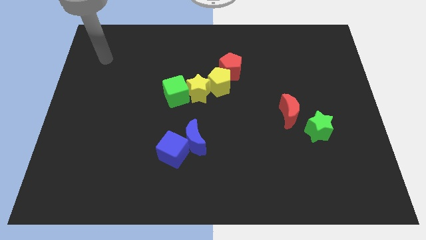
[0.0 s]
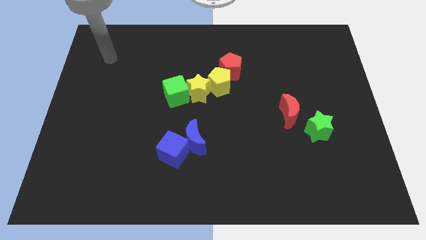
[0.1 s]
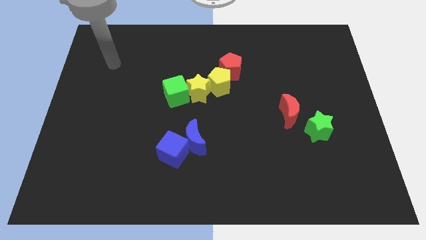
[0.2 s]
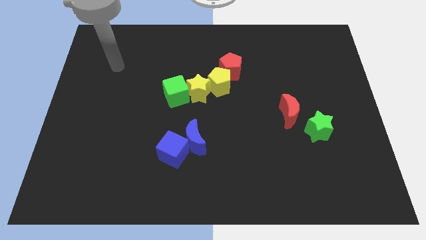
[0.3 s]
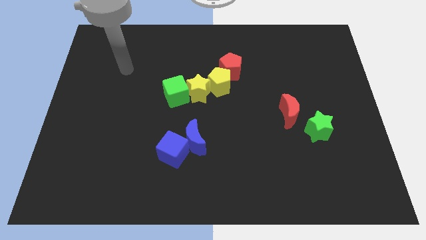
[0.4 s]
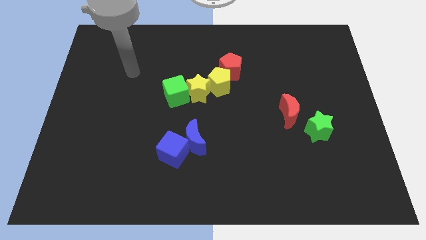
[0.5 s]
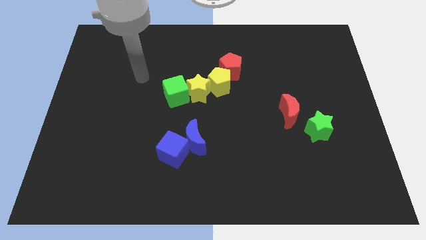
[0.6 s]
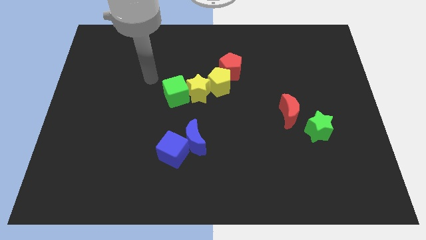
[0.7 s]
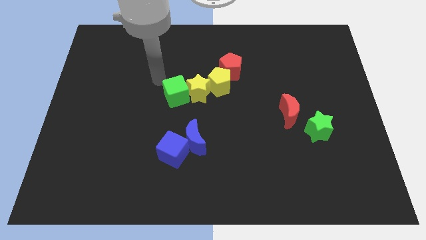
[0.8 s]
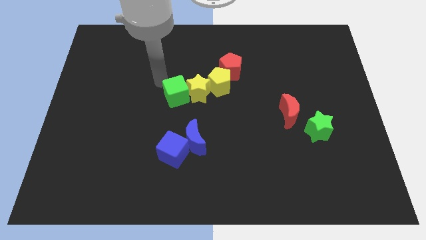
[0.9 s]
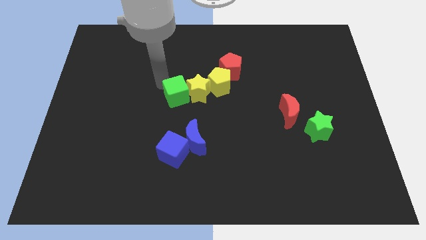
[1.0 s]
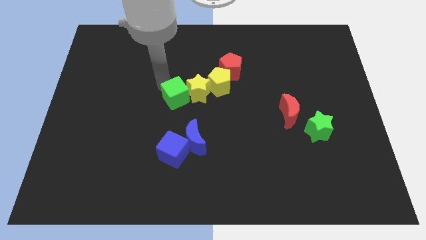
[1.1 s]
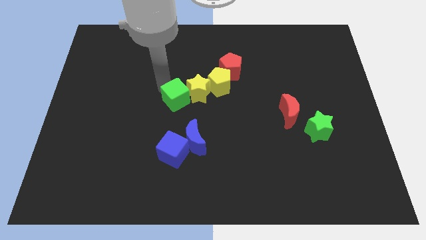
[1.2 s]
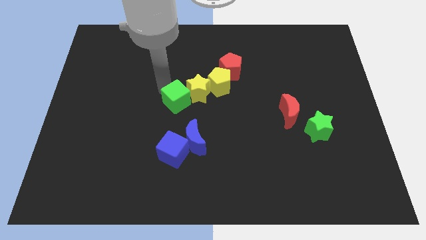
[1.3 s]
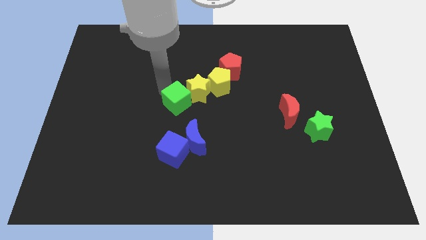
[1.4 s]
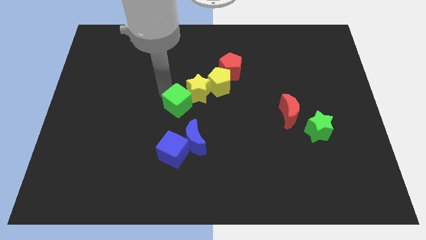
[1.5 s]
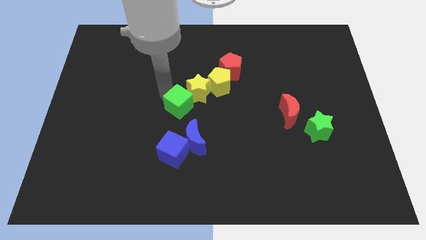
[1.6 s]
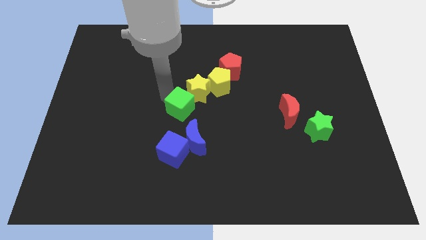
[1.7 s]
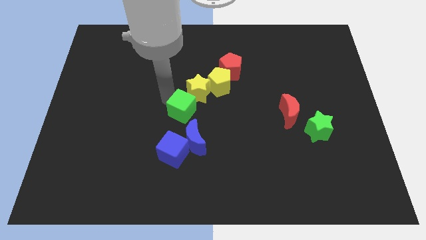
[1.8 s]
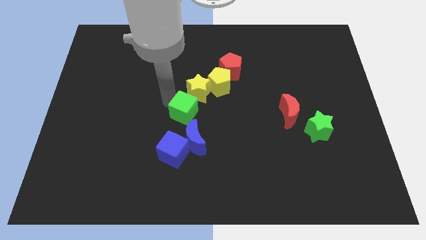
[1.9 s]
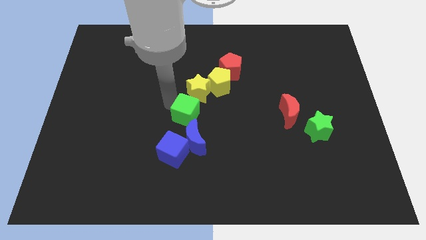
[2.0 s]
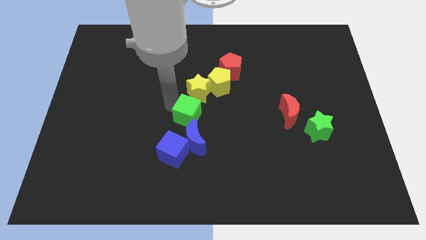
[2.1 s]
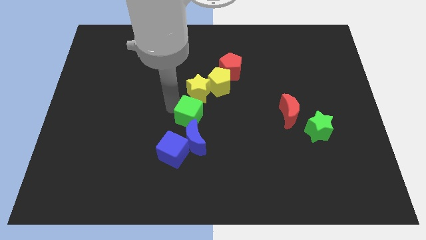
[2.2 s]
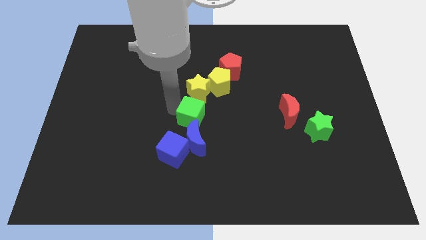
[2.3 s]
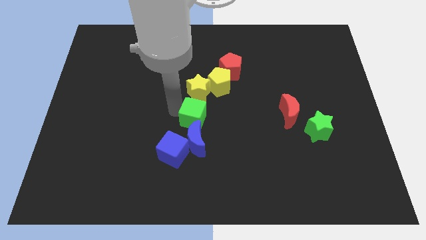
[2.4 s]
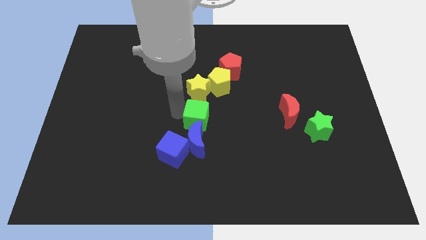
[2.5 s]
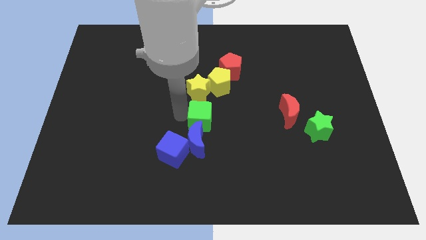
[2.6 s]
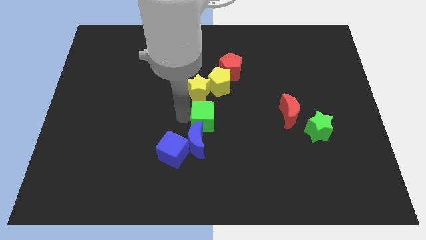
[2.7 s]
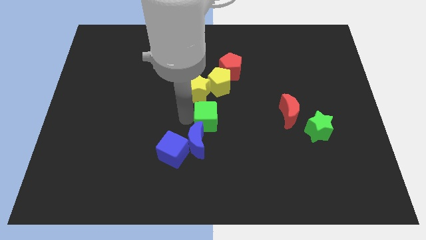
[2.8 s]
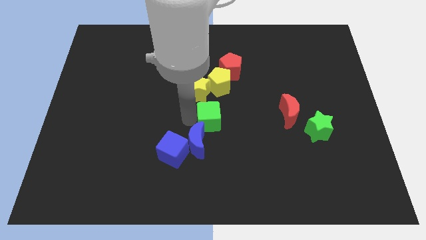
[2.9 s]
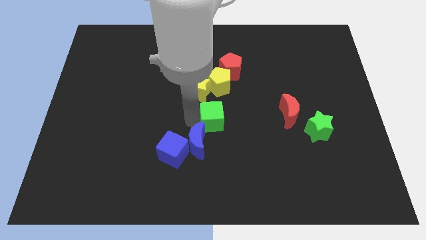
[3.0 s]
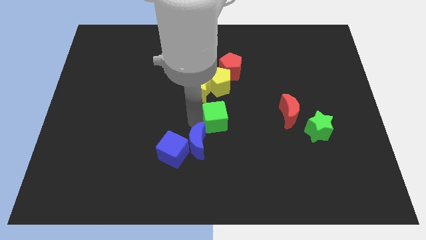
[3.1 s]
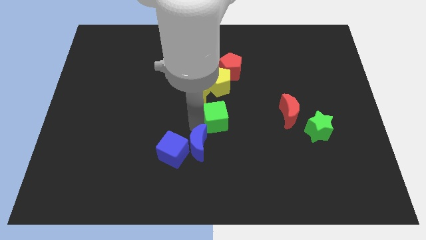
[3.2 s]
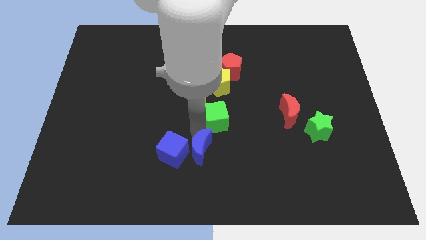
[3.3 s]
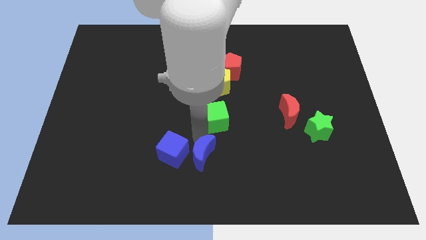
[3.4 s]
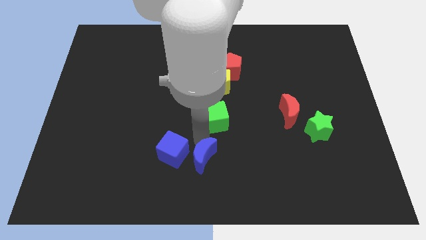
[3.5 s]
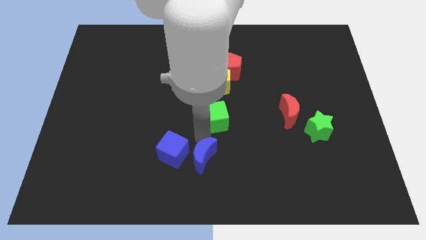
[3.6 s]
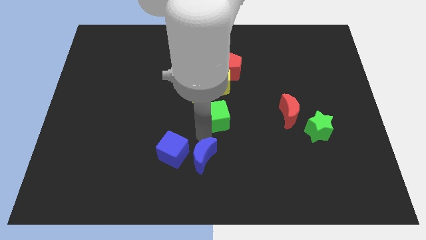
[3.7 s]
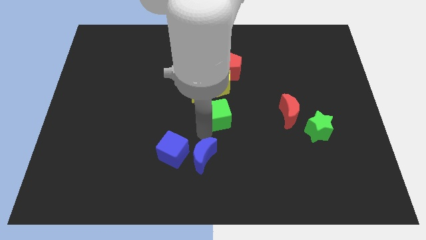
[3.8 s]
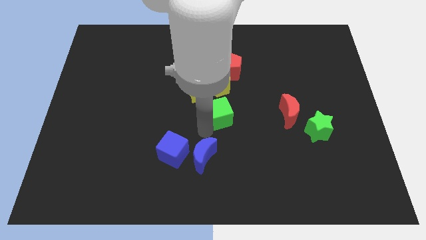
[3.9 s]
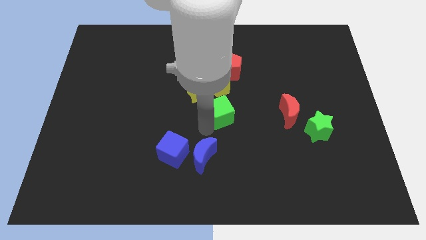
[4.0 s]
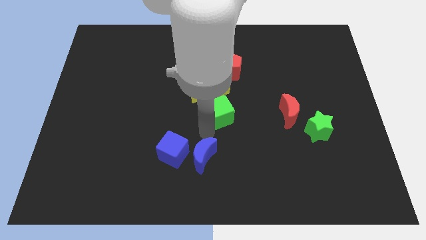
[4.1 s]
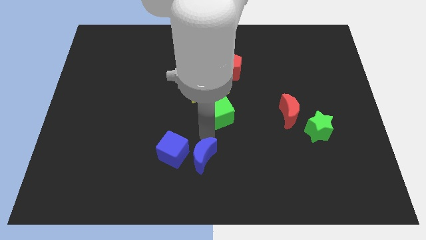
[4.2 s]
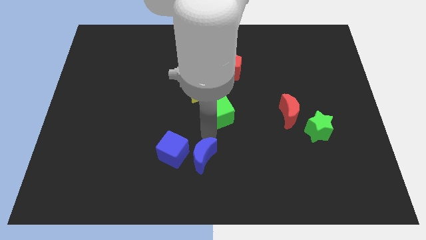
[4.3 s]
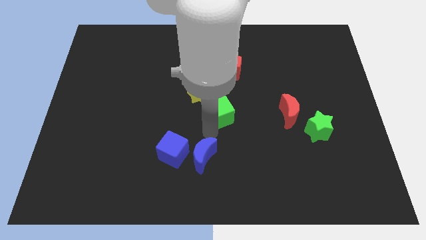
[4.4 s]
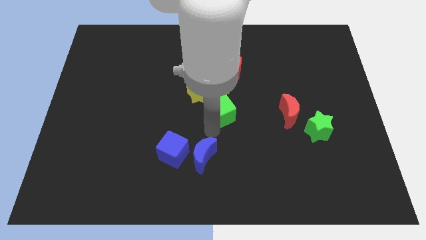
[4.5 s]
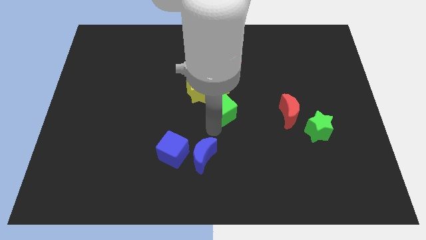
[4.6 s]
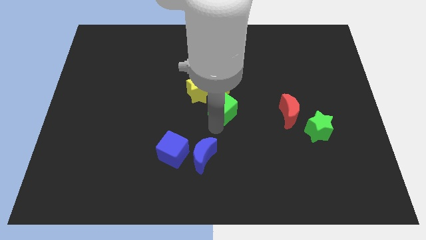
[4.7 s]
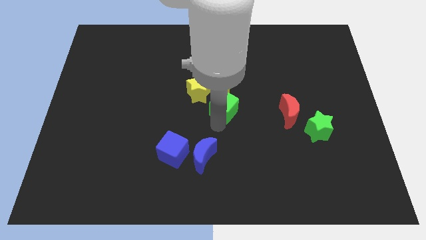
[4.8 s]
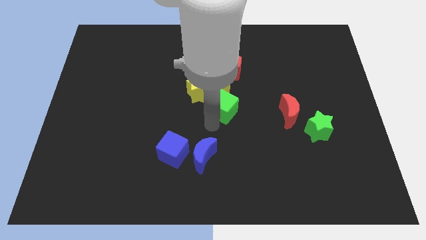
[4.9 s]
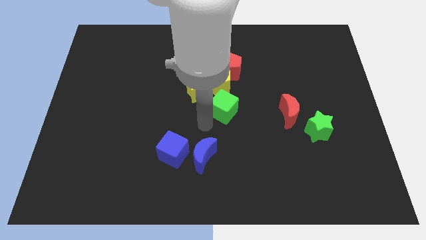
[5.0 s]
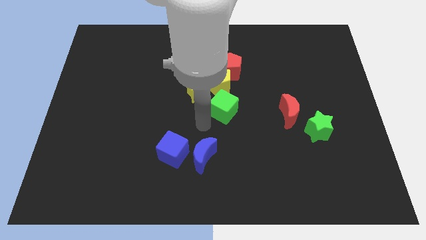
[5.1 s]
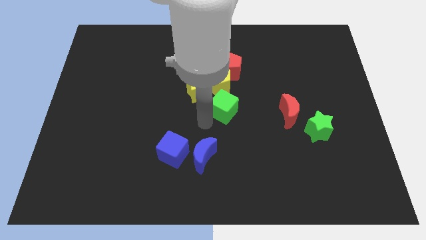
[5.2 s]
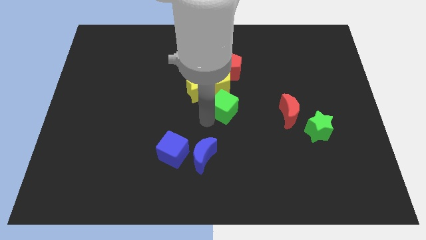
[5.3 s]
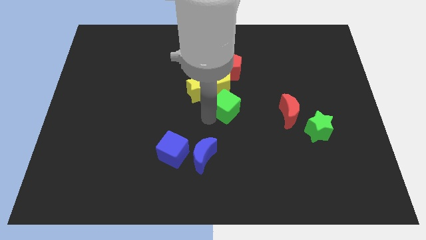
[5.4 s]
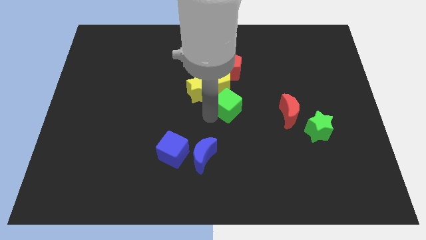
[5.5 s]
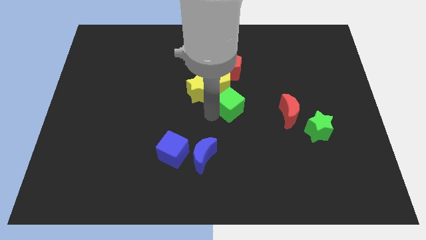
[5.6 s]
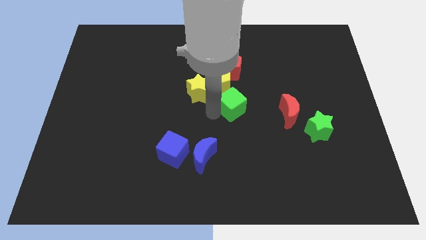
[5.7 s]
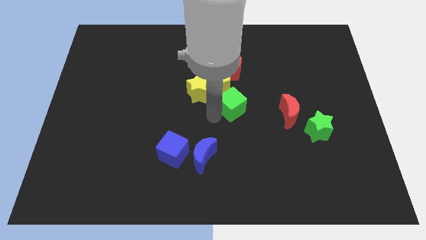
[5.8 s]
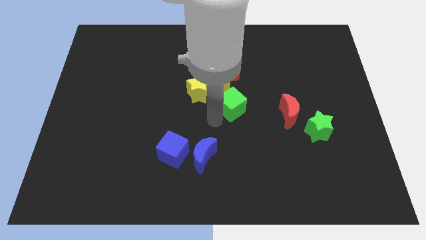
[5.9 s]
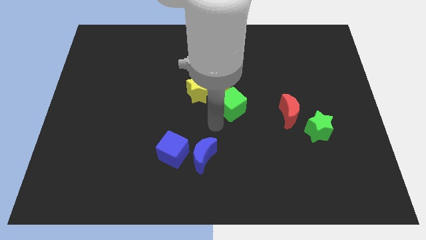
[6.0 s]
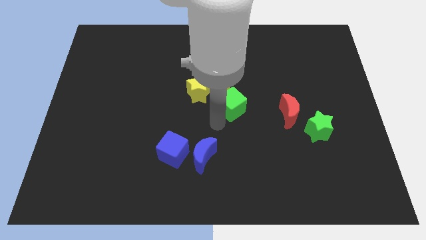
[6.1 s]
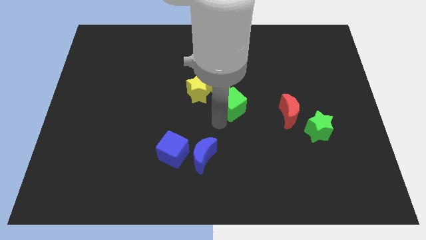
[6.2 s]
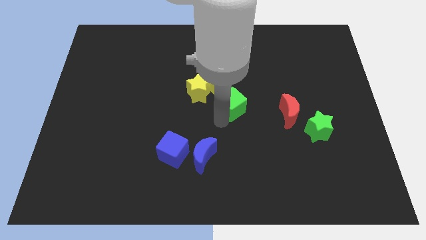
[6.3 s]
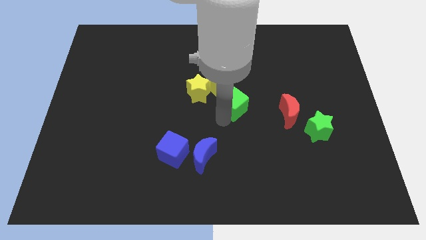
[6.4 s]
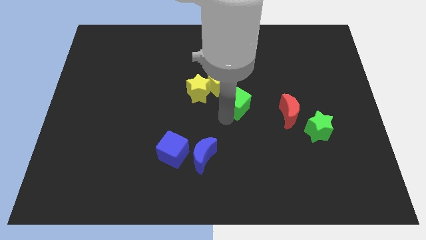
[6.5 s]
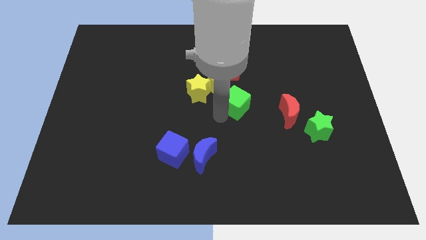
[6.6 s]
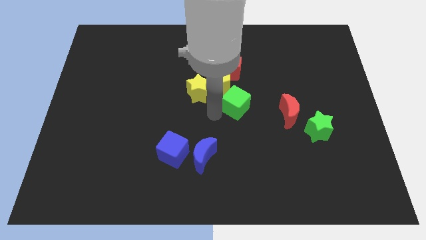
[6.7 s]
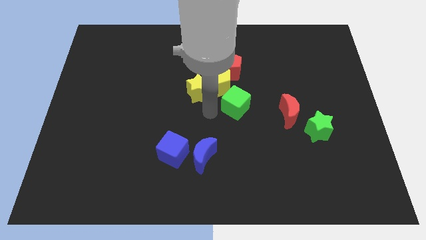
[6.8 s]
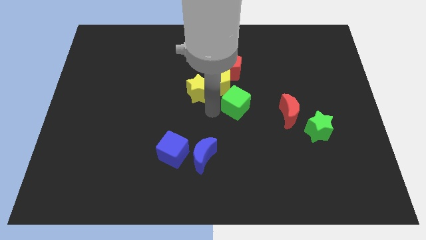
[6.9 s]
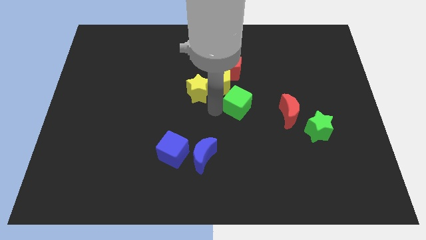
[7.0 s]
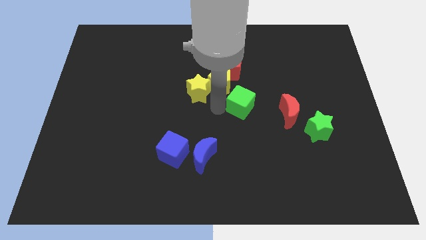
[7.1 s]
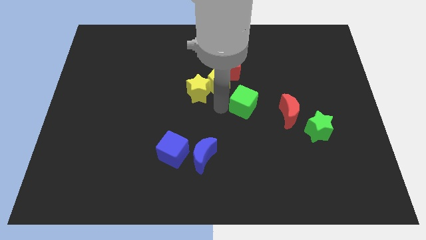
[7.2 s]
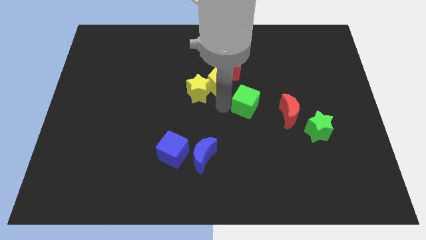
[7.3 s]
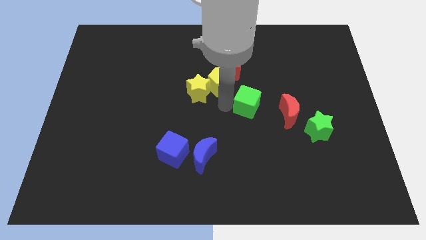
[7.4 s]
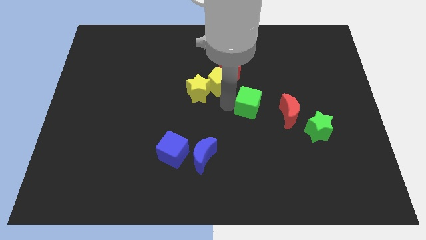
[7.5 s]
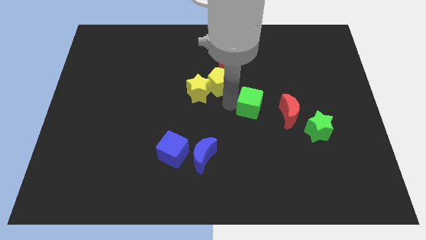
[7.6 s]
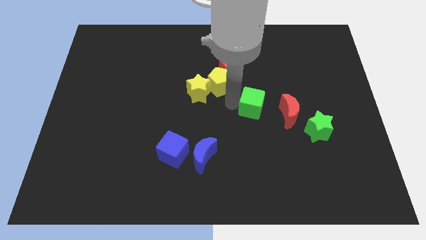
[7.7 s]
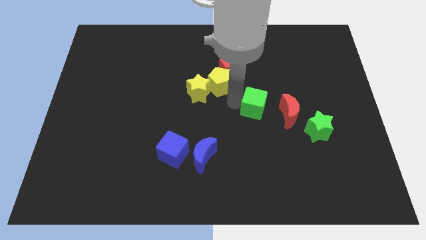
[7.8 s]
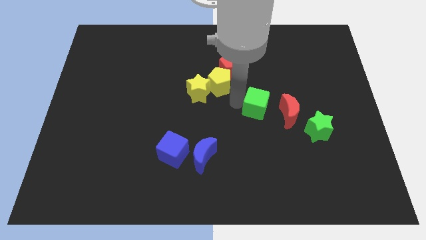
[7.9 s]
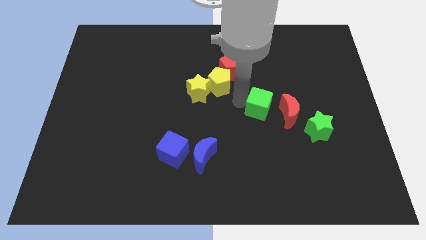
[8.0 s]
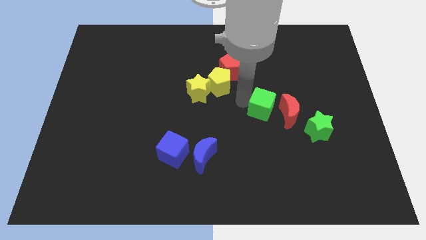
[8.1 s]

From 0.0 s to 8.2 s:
move the green cube to the right
